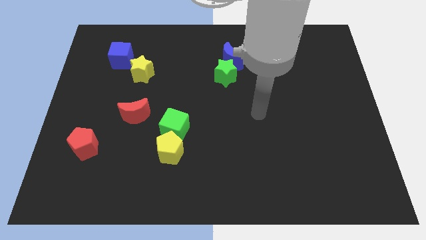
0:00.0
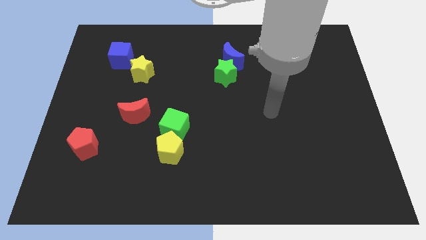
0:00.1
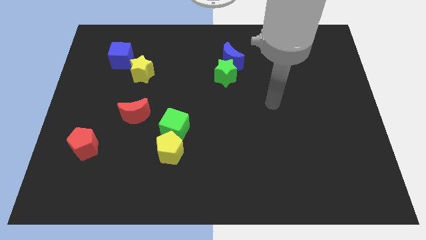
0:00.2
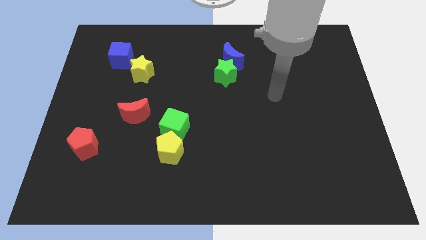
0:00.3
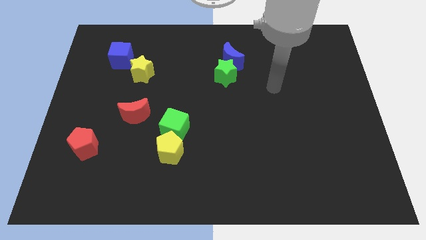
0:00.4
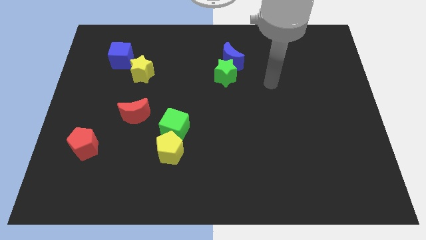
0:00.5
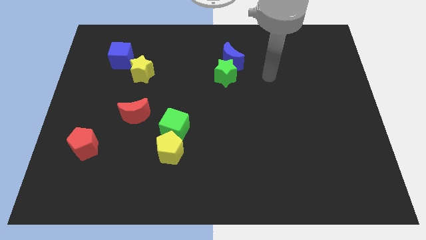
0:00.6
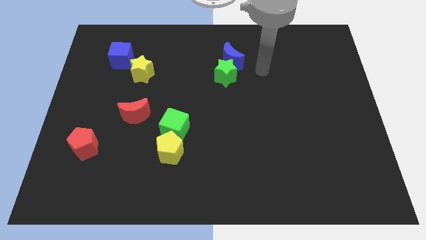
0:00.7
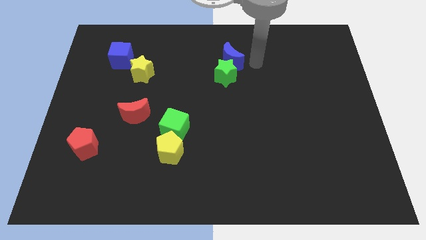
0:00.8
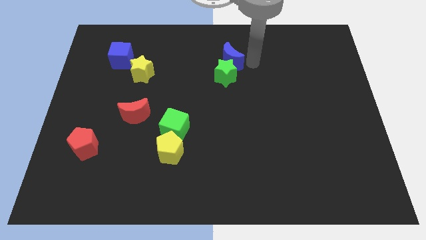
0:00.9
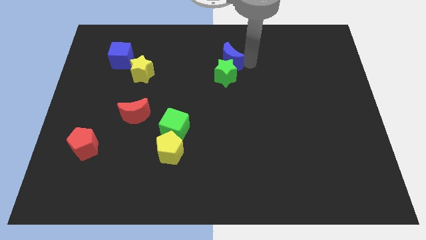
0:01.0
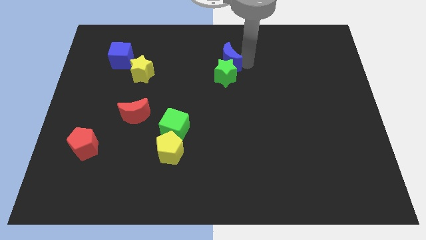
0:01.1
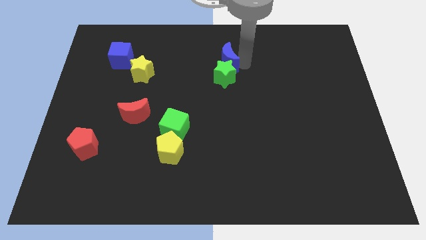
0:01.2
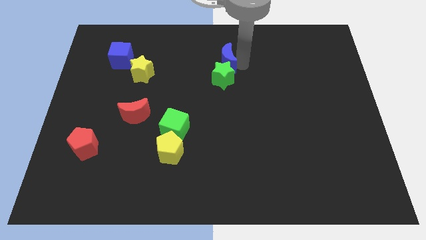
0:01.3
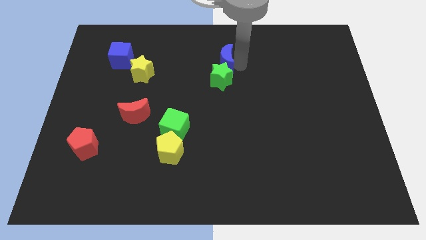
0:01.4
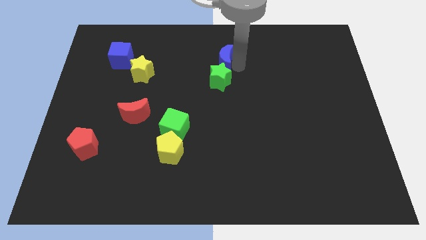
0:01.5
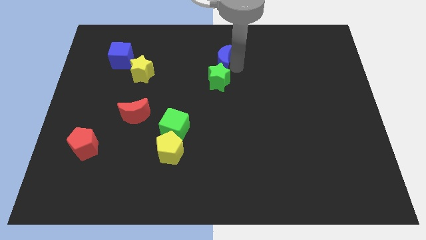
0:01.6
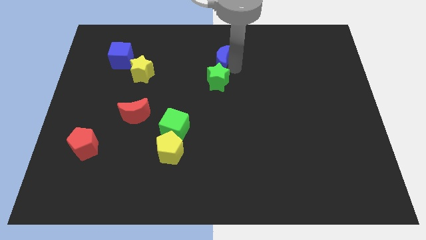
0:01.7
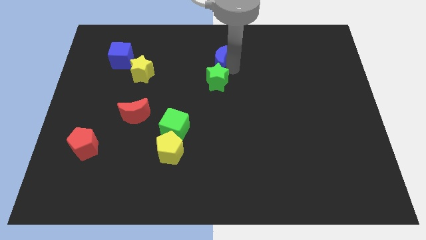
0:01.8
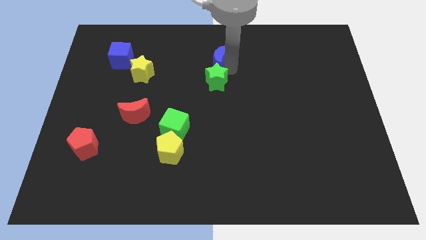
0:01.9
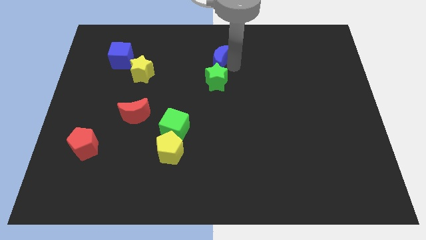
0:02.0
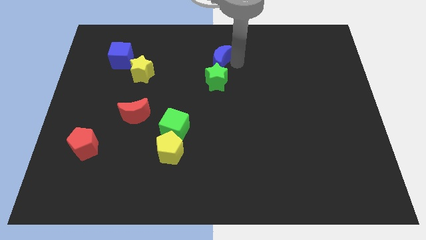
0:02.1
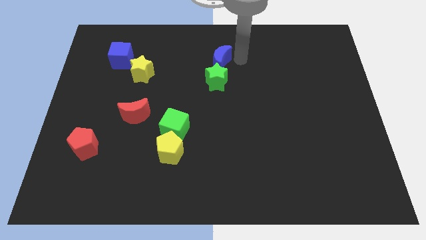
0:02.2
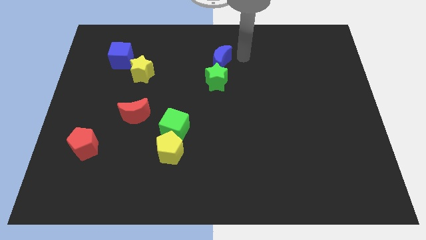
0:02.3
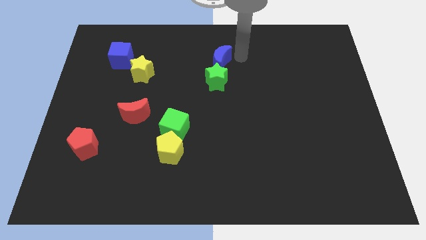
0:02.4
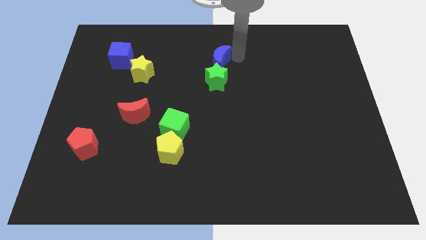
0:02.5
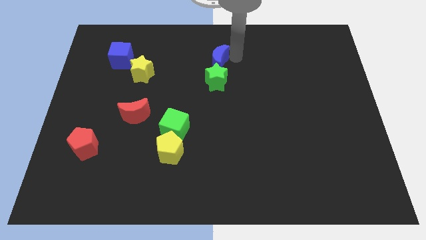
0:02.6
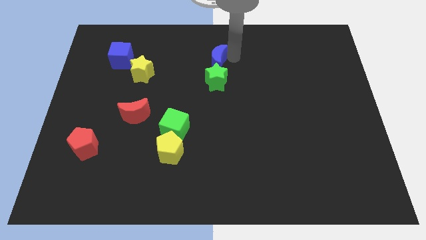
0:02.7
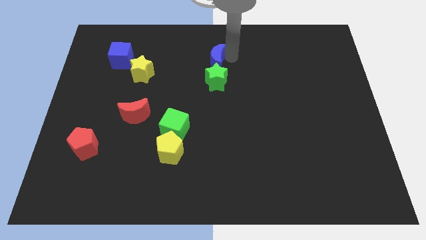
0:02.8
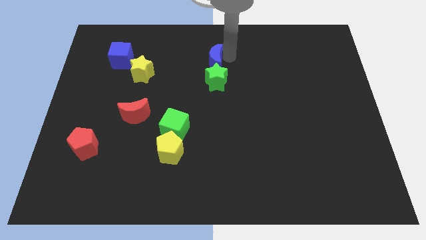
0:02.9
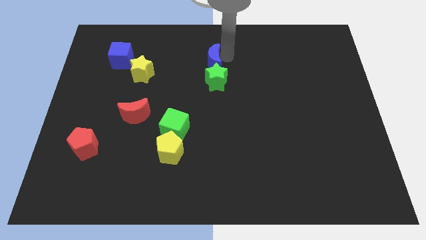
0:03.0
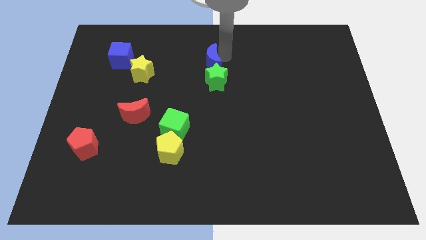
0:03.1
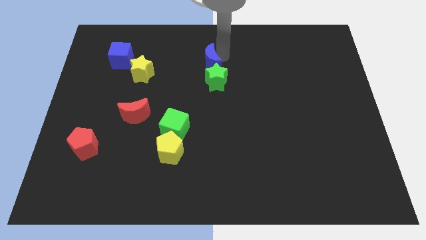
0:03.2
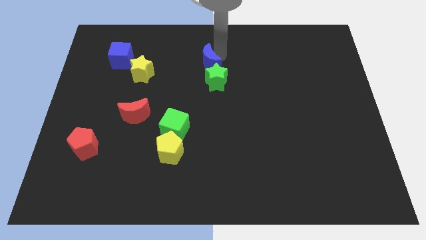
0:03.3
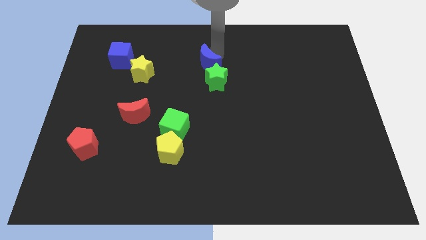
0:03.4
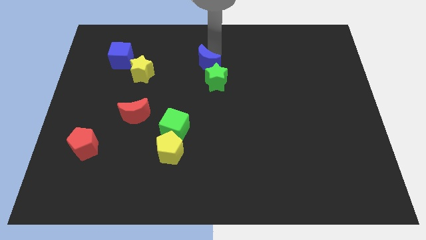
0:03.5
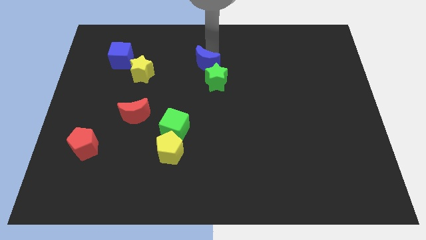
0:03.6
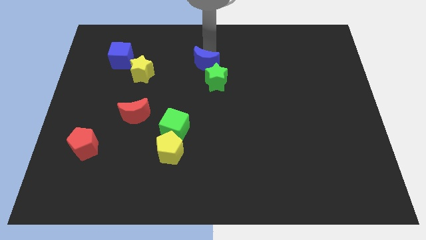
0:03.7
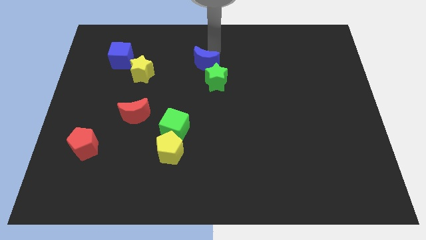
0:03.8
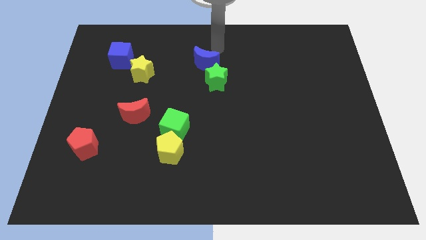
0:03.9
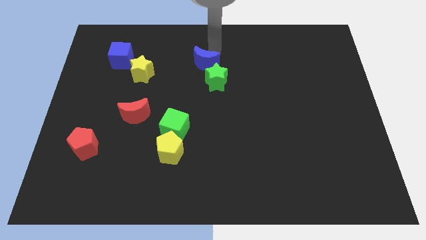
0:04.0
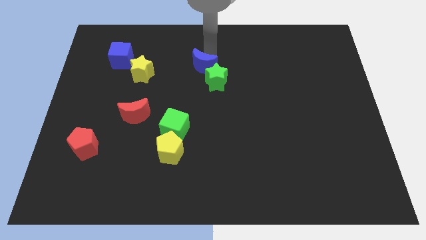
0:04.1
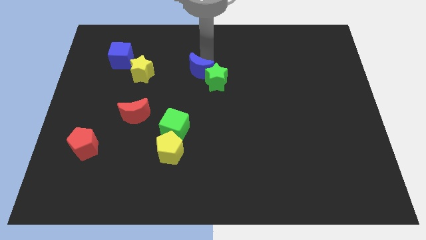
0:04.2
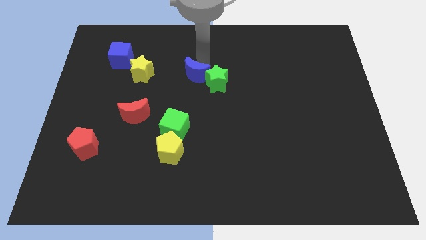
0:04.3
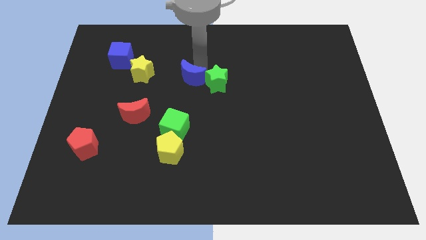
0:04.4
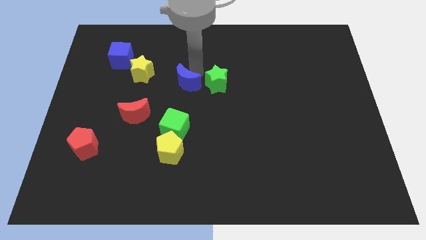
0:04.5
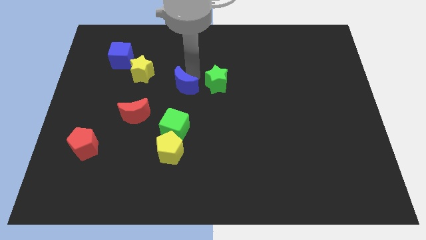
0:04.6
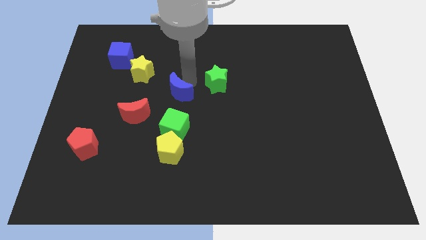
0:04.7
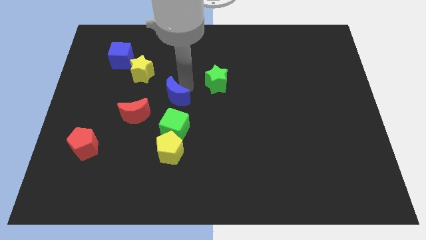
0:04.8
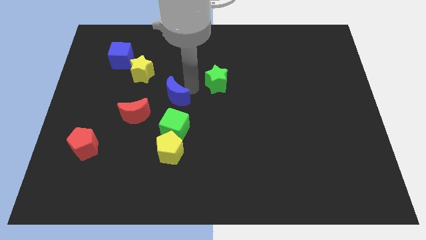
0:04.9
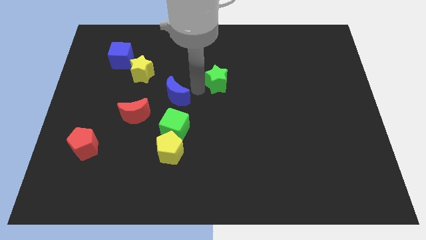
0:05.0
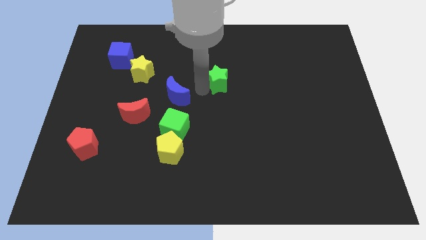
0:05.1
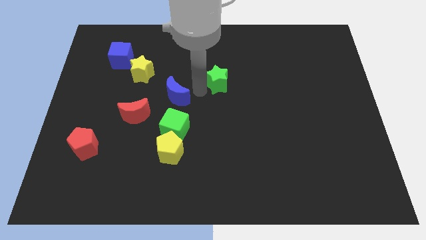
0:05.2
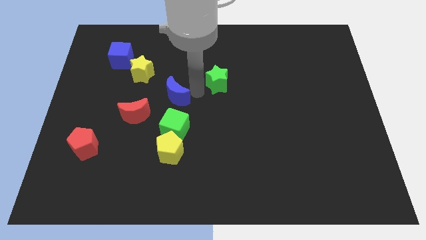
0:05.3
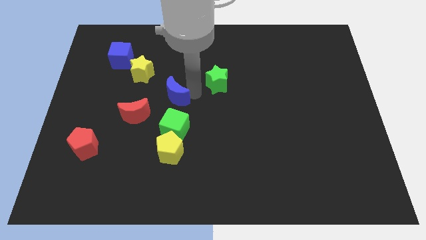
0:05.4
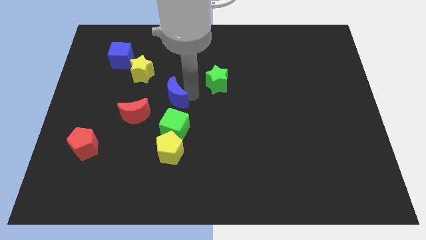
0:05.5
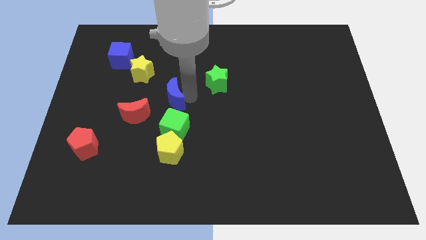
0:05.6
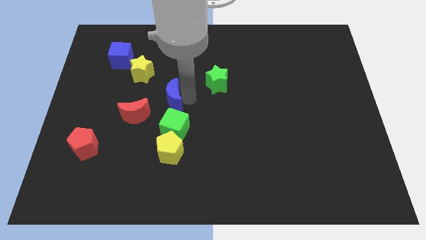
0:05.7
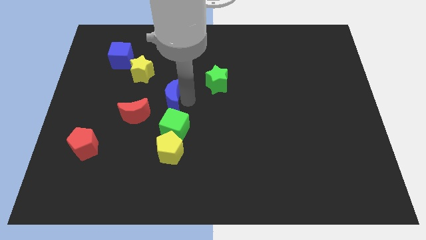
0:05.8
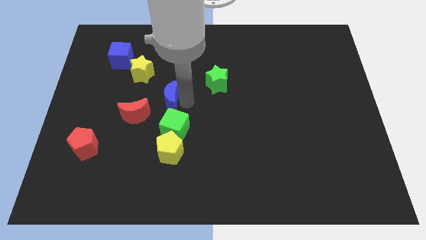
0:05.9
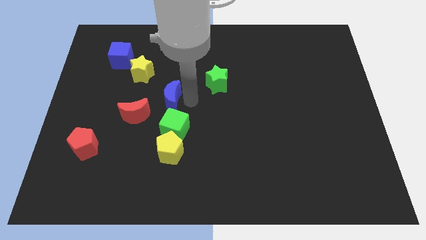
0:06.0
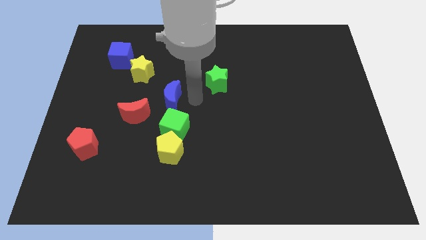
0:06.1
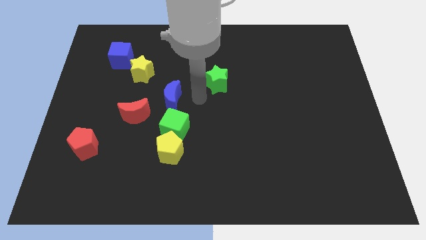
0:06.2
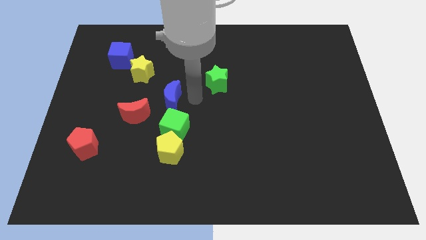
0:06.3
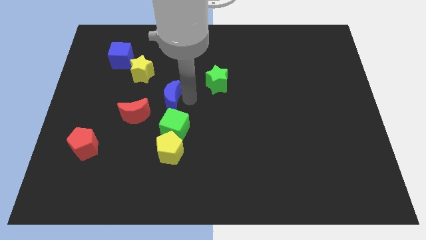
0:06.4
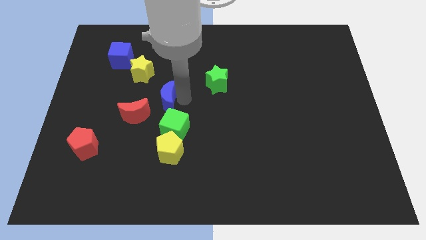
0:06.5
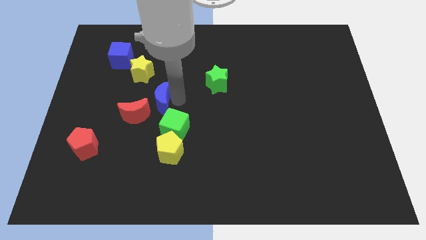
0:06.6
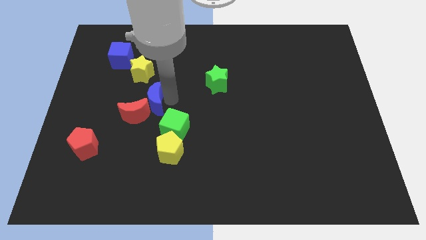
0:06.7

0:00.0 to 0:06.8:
slide the blue moon towards the red moon
